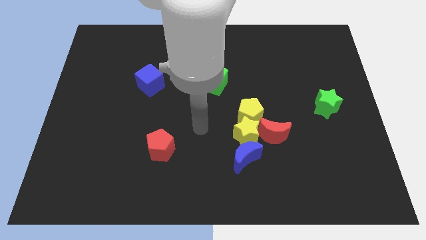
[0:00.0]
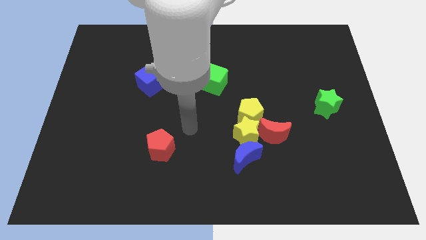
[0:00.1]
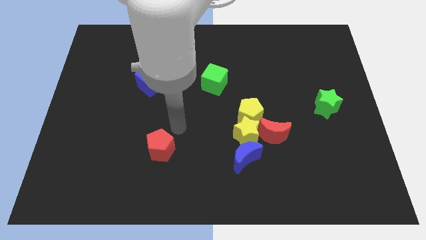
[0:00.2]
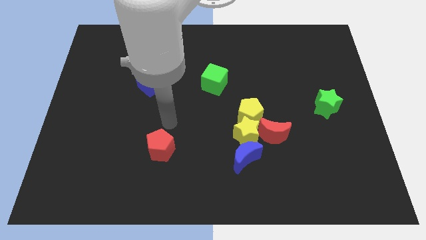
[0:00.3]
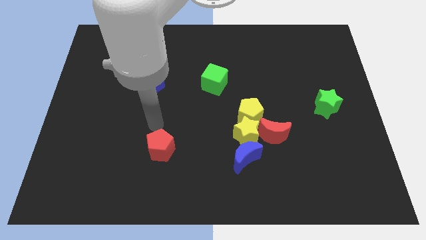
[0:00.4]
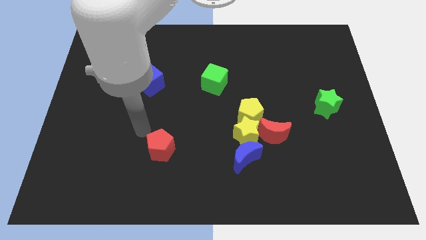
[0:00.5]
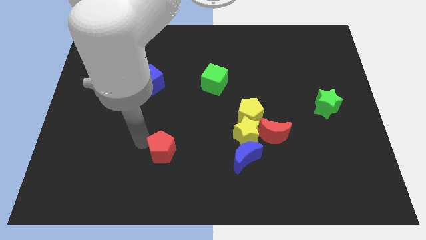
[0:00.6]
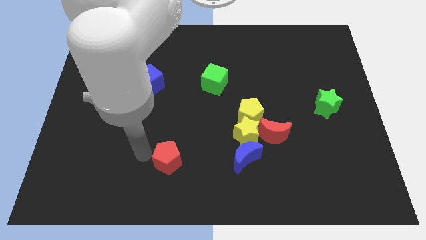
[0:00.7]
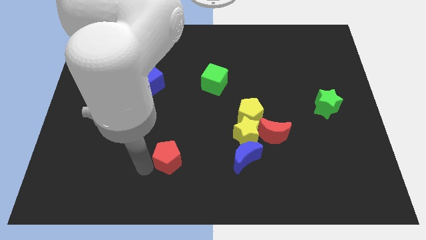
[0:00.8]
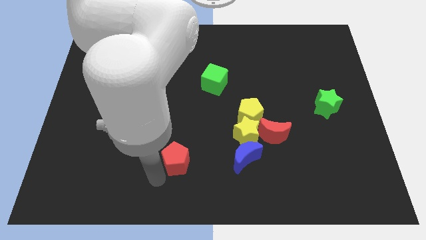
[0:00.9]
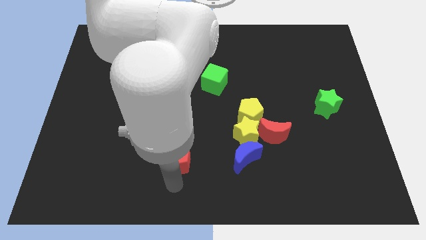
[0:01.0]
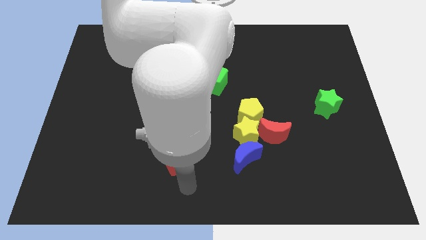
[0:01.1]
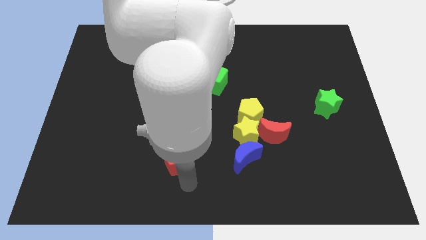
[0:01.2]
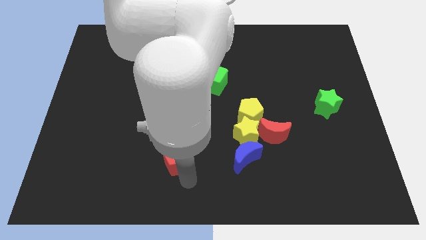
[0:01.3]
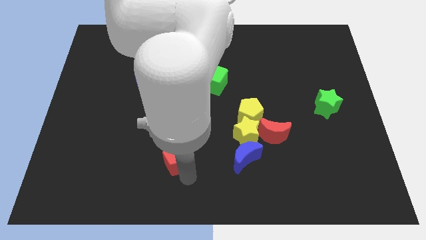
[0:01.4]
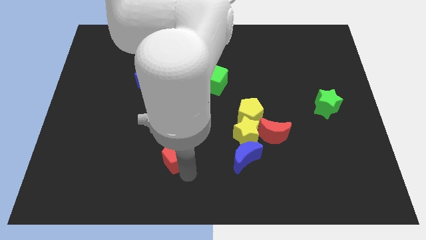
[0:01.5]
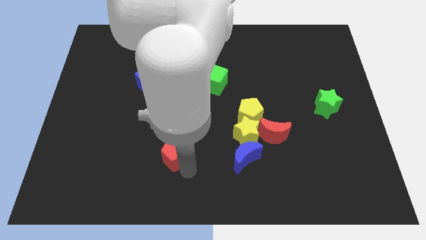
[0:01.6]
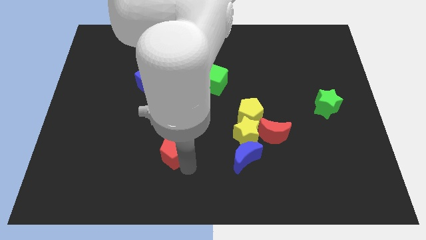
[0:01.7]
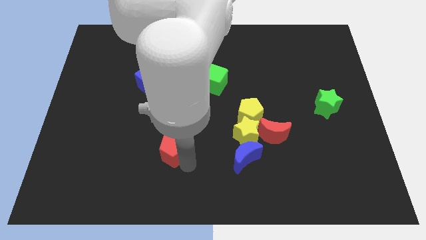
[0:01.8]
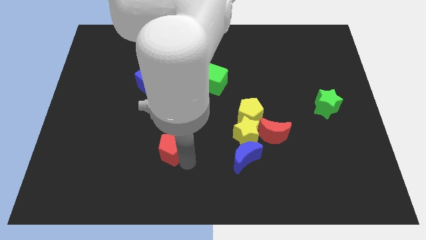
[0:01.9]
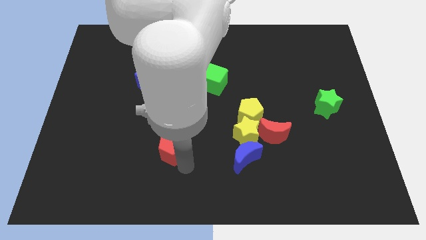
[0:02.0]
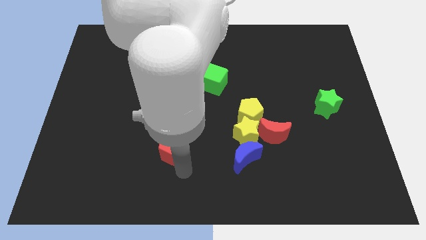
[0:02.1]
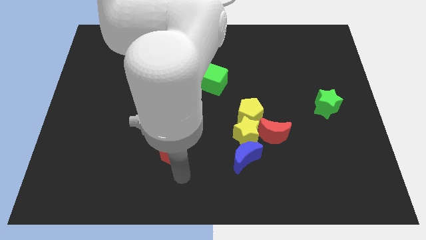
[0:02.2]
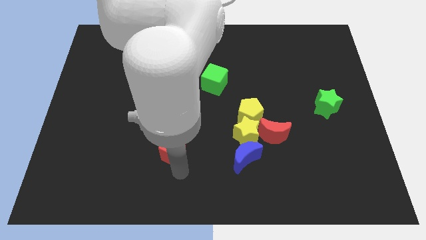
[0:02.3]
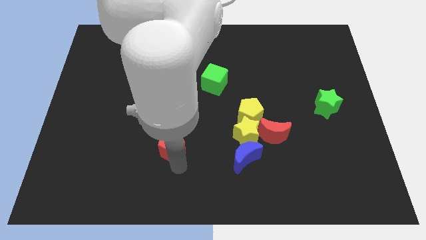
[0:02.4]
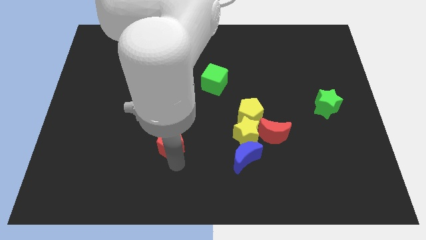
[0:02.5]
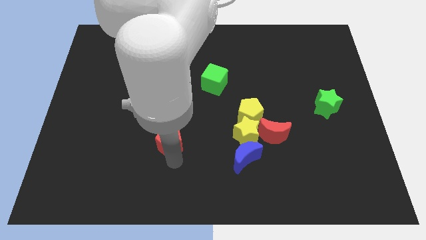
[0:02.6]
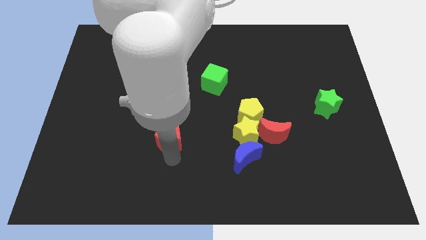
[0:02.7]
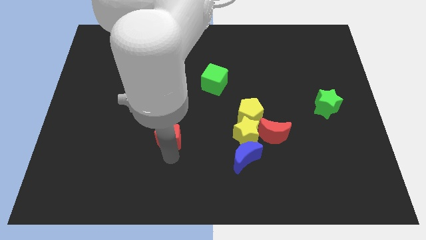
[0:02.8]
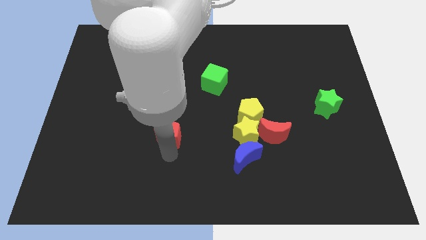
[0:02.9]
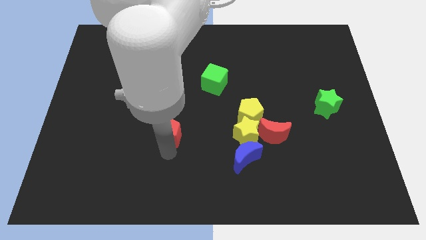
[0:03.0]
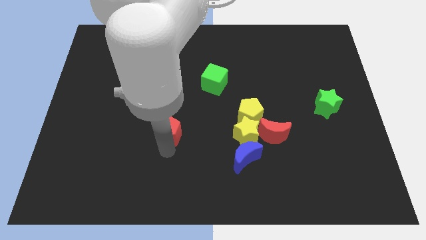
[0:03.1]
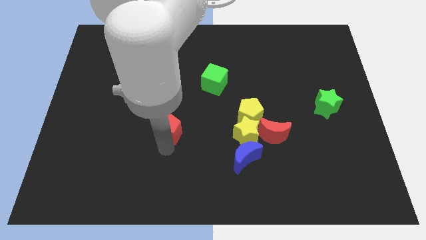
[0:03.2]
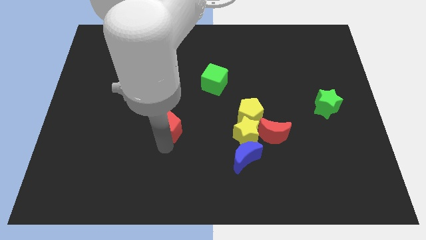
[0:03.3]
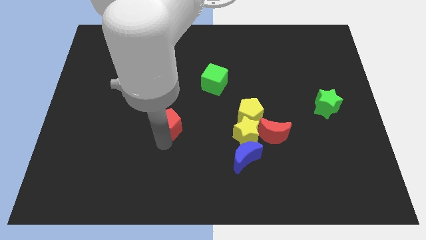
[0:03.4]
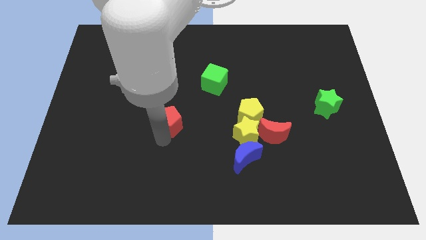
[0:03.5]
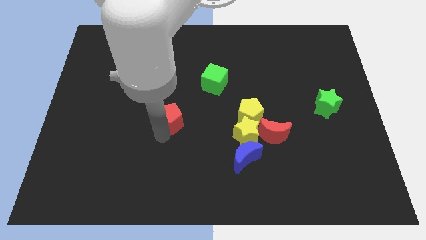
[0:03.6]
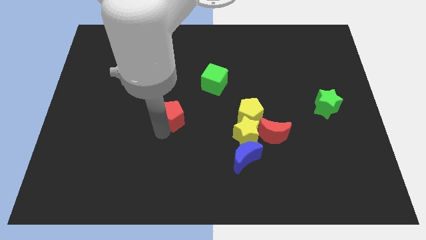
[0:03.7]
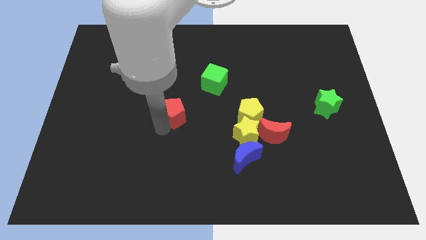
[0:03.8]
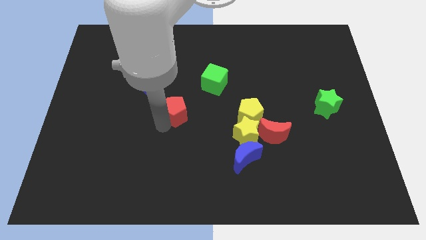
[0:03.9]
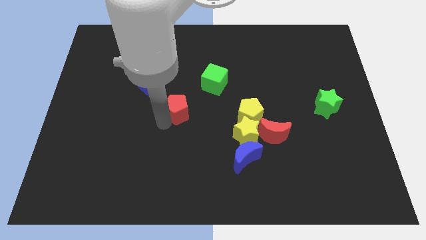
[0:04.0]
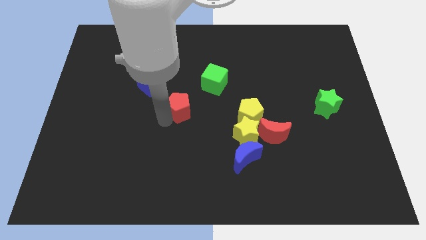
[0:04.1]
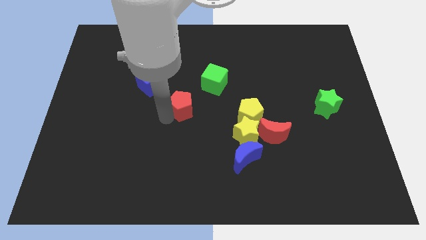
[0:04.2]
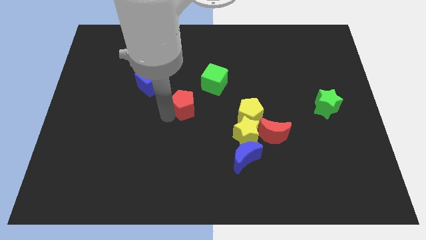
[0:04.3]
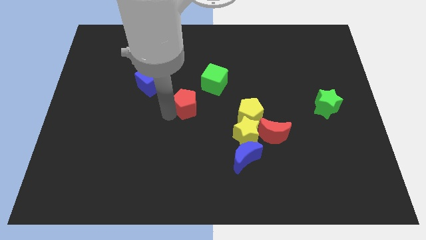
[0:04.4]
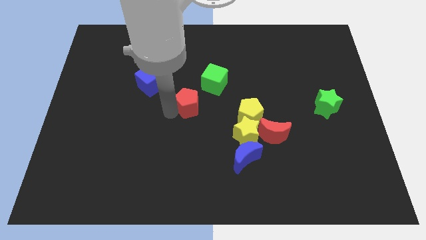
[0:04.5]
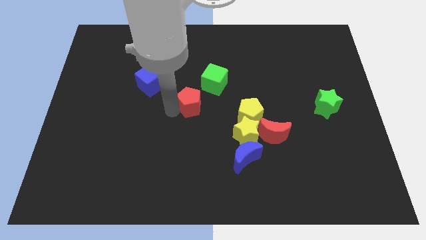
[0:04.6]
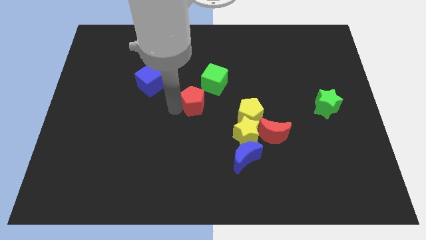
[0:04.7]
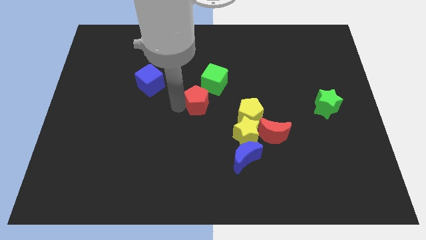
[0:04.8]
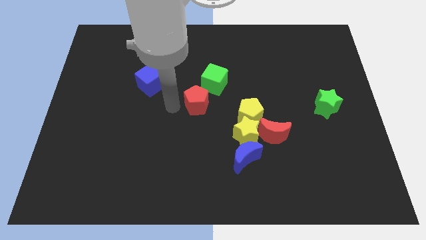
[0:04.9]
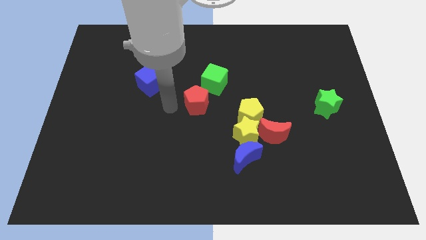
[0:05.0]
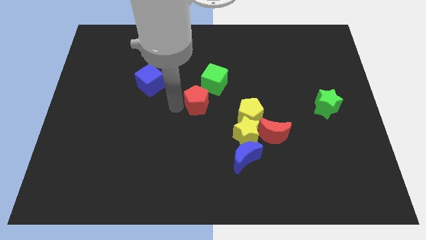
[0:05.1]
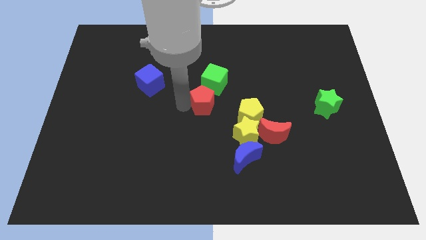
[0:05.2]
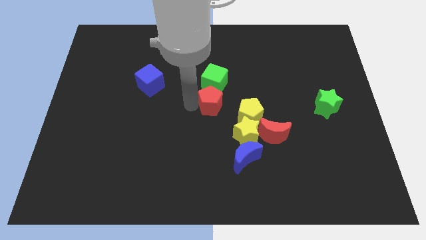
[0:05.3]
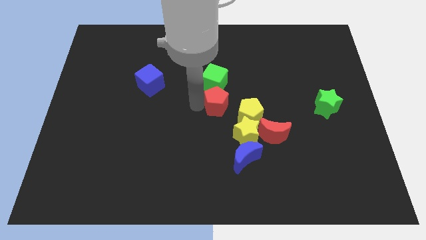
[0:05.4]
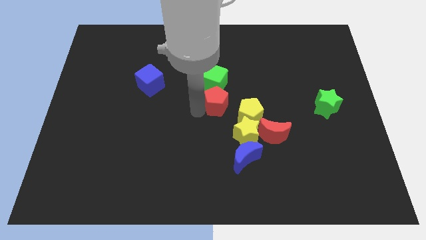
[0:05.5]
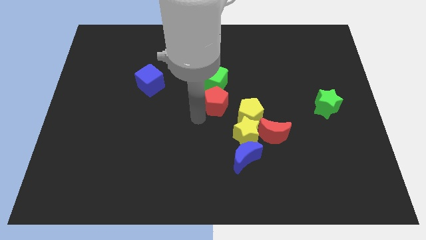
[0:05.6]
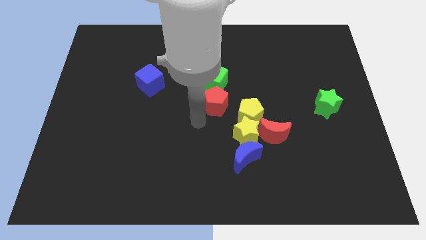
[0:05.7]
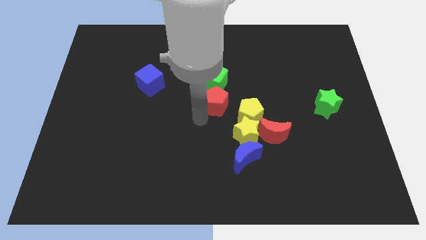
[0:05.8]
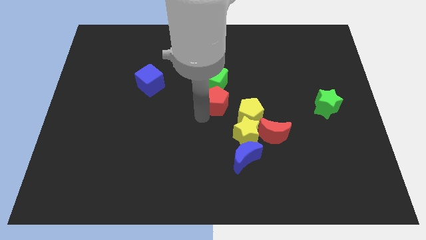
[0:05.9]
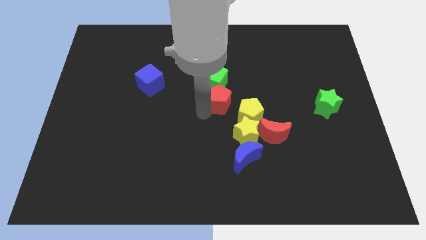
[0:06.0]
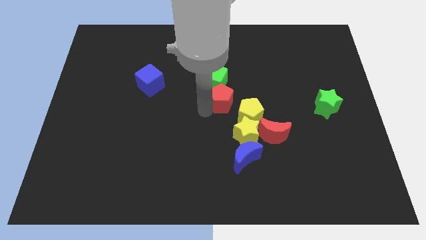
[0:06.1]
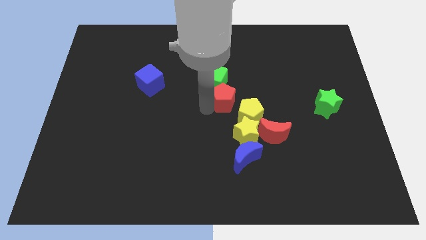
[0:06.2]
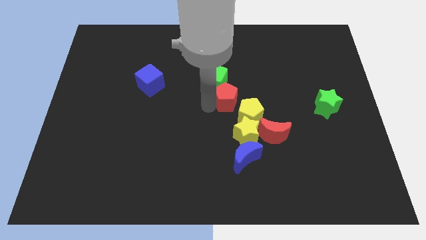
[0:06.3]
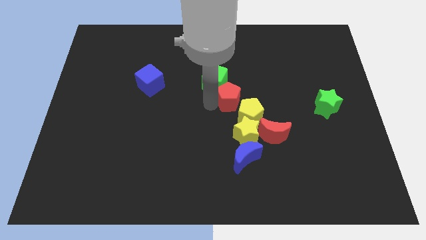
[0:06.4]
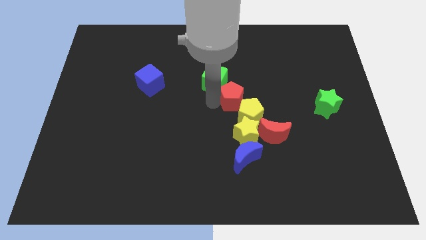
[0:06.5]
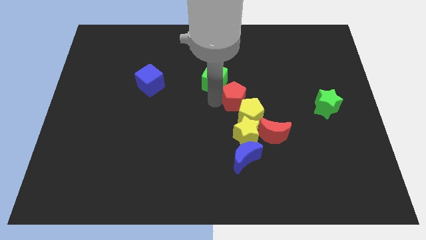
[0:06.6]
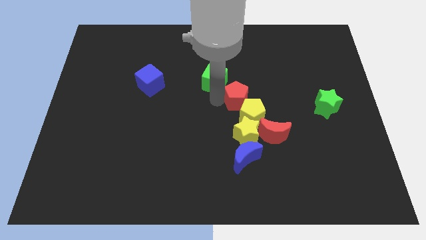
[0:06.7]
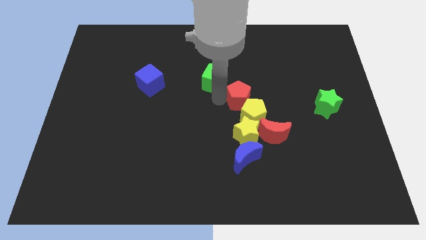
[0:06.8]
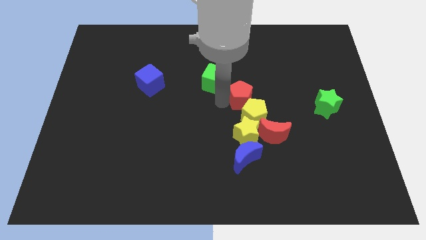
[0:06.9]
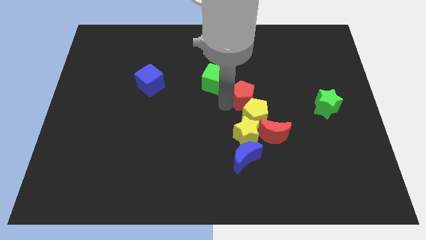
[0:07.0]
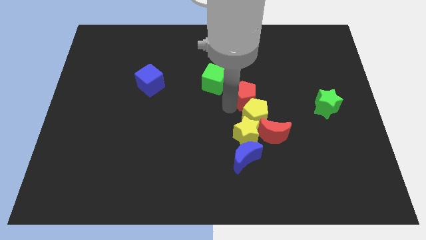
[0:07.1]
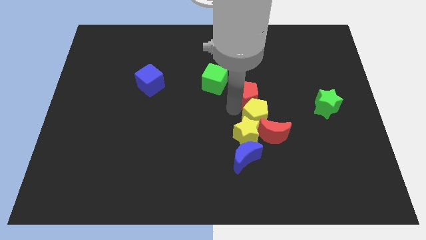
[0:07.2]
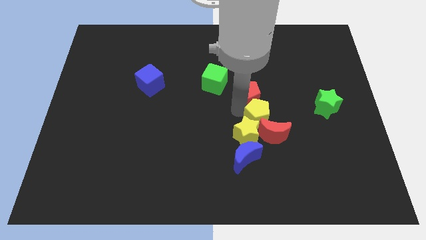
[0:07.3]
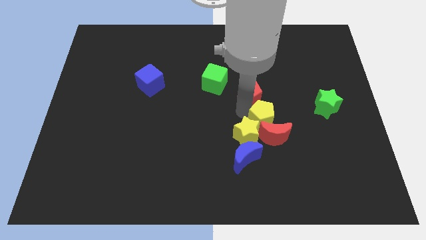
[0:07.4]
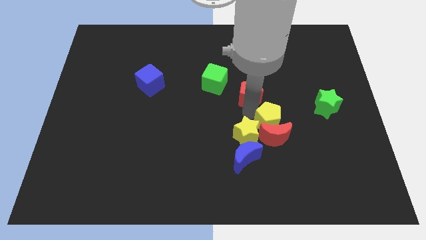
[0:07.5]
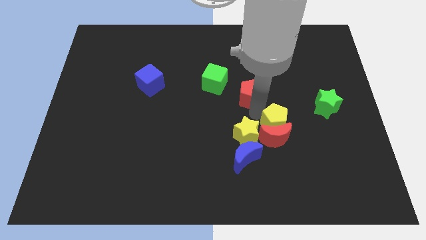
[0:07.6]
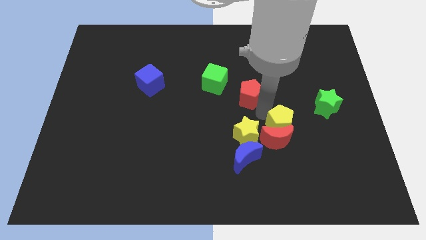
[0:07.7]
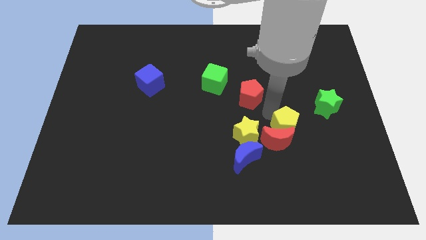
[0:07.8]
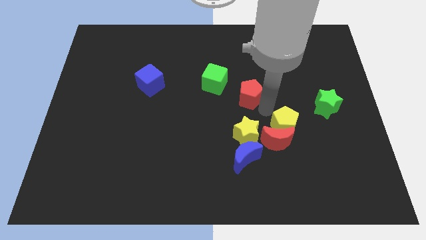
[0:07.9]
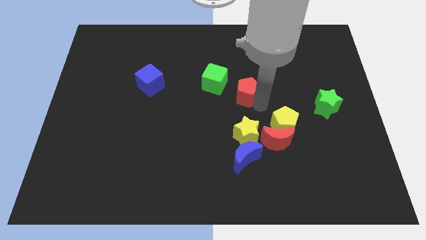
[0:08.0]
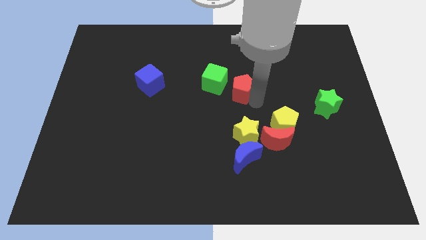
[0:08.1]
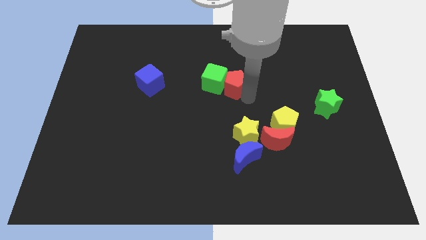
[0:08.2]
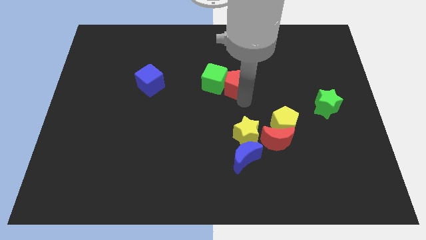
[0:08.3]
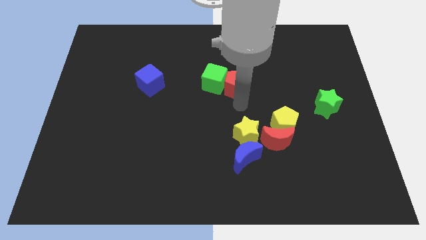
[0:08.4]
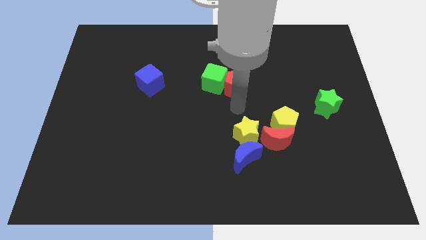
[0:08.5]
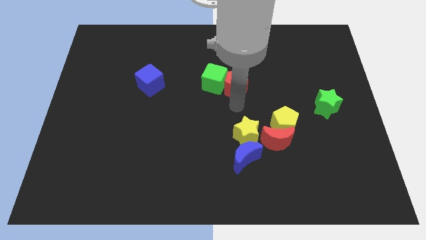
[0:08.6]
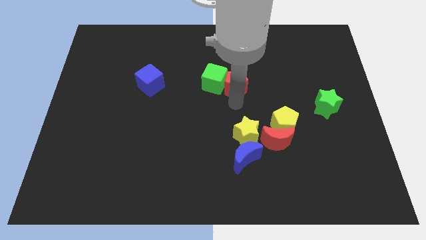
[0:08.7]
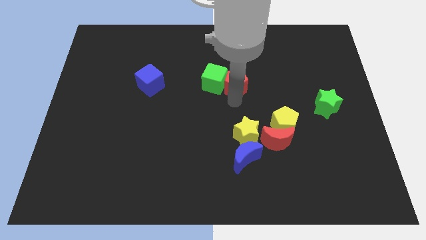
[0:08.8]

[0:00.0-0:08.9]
put the red pentagon to the top right of the green cube
